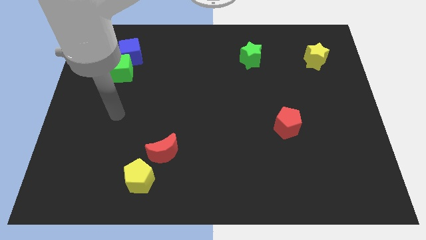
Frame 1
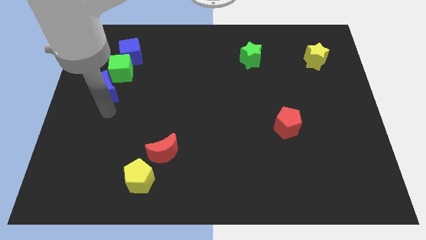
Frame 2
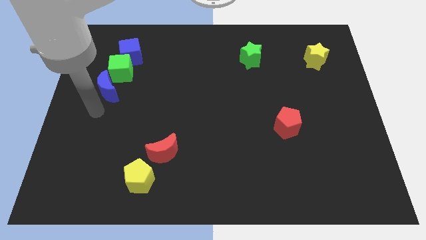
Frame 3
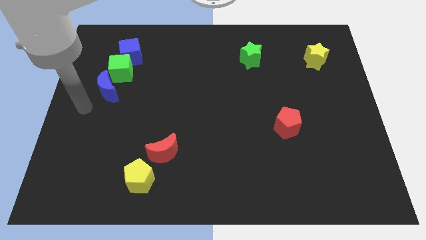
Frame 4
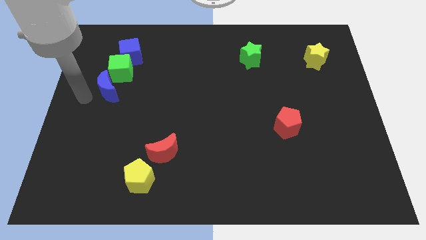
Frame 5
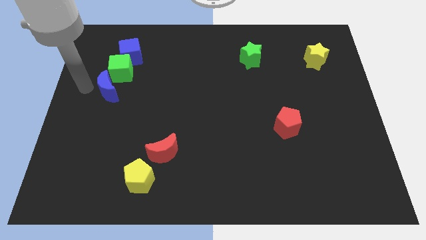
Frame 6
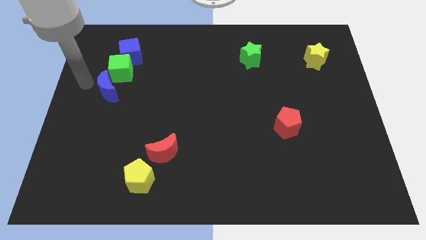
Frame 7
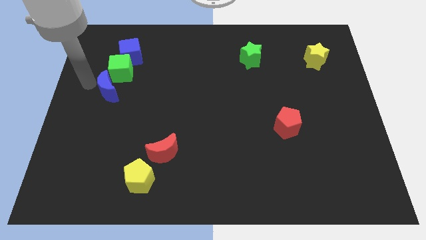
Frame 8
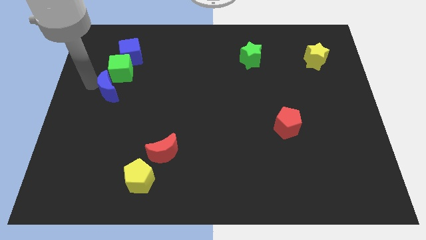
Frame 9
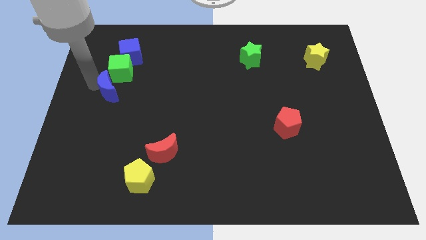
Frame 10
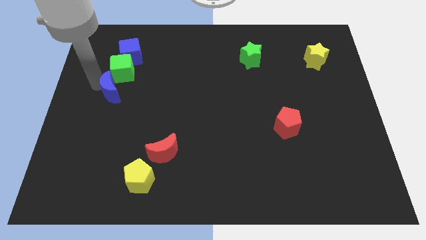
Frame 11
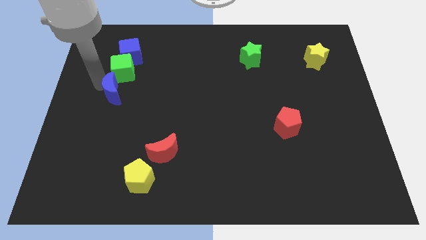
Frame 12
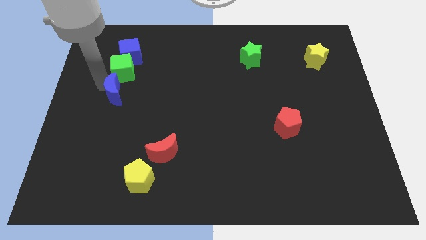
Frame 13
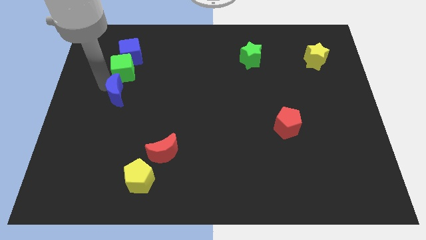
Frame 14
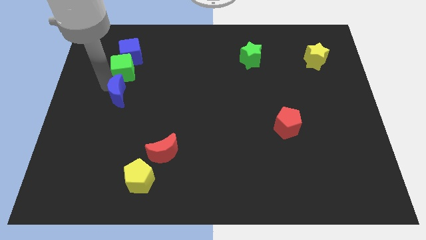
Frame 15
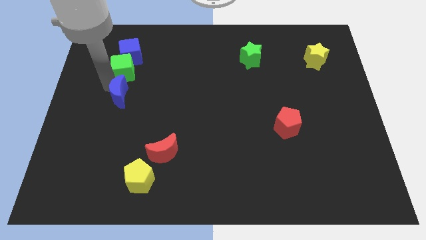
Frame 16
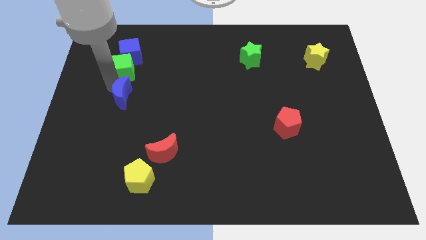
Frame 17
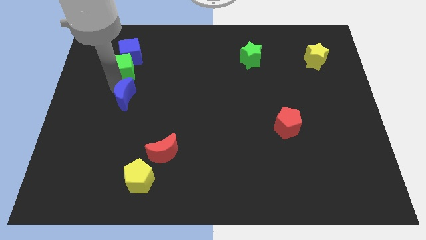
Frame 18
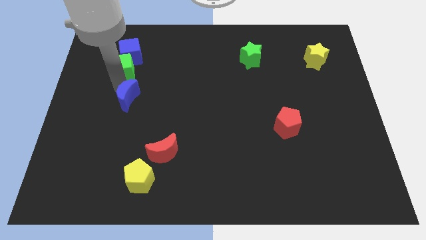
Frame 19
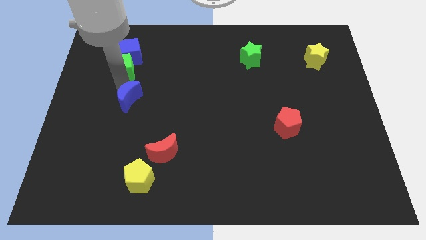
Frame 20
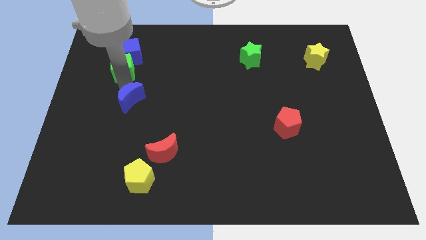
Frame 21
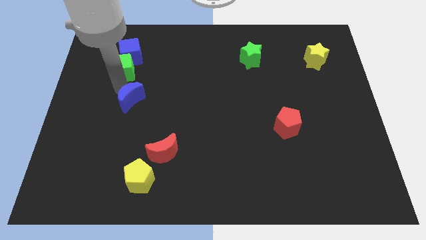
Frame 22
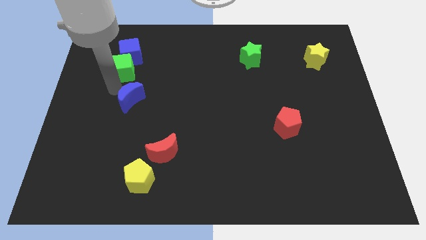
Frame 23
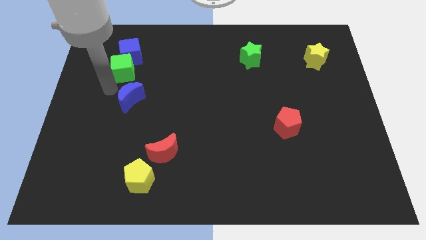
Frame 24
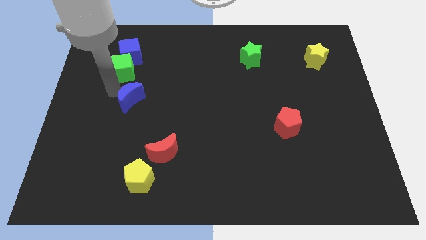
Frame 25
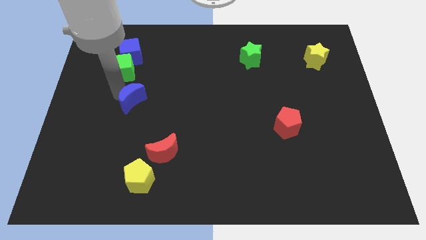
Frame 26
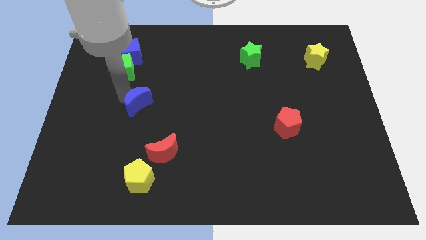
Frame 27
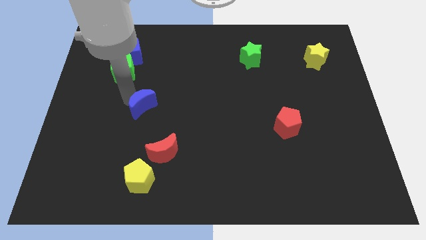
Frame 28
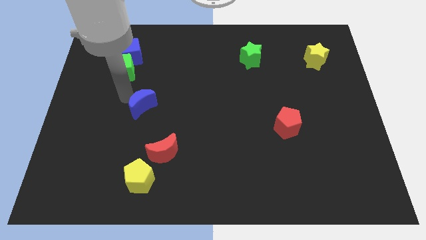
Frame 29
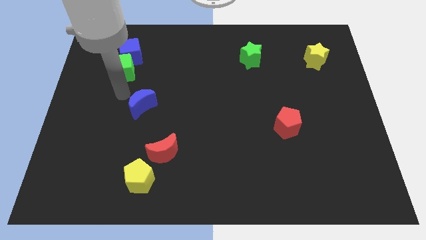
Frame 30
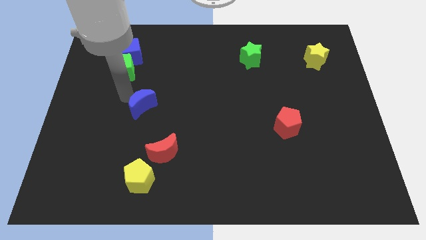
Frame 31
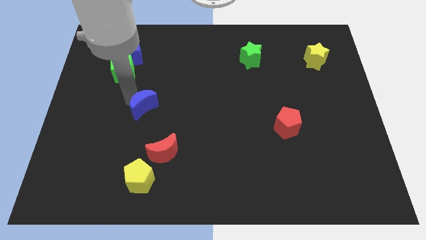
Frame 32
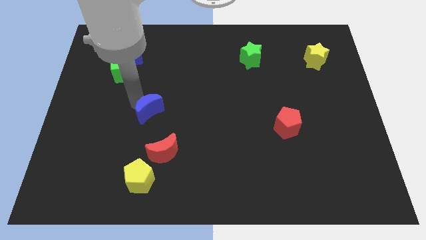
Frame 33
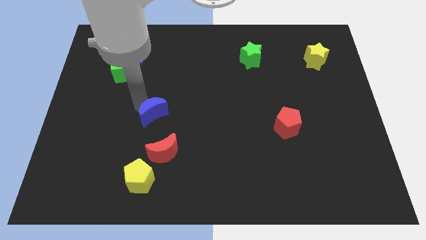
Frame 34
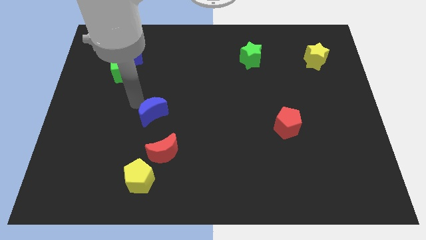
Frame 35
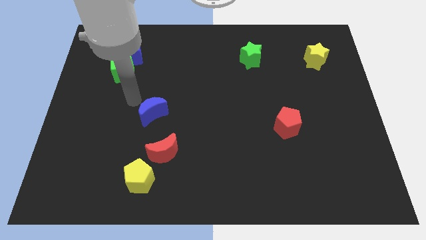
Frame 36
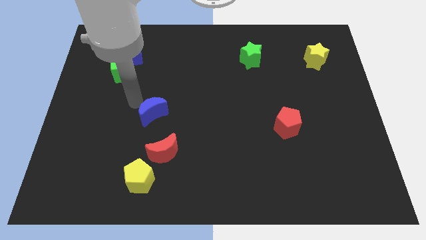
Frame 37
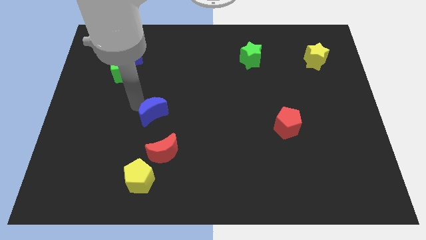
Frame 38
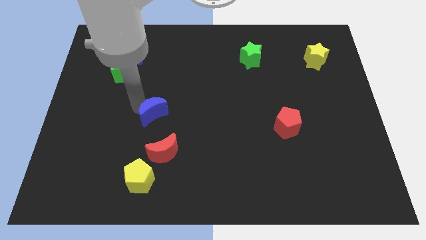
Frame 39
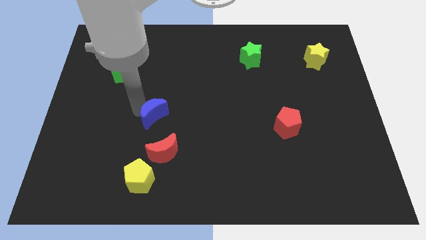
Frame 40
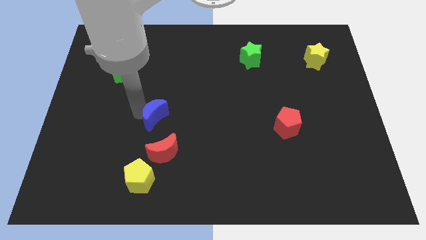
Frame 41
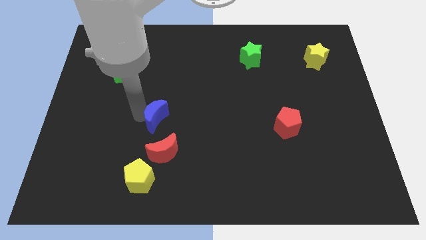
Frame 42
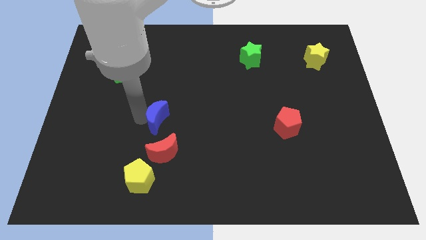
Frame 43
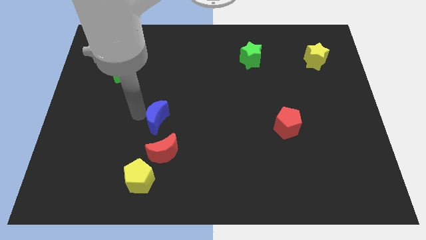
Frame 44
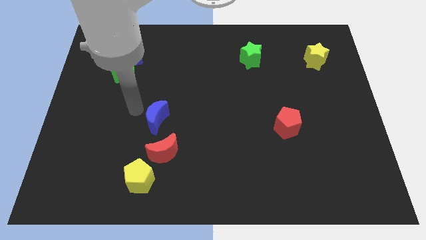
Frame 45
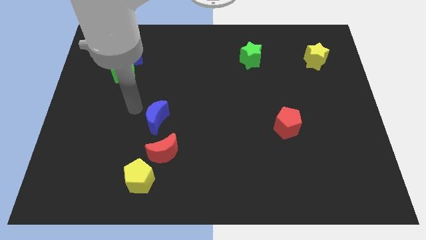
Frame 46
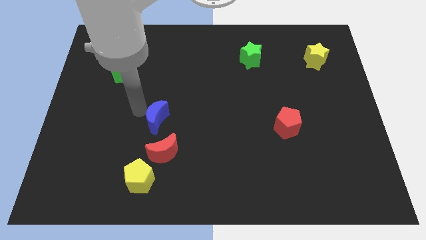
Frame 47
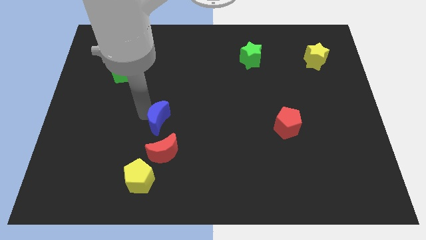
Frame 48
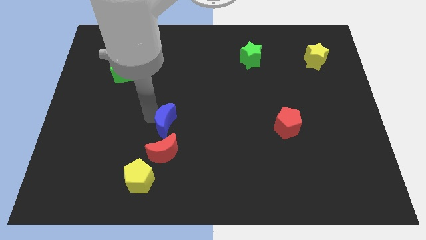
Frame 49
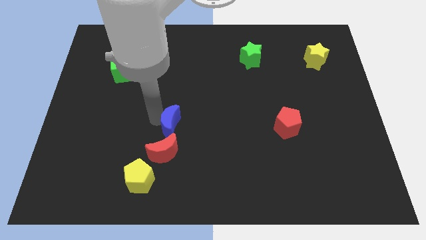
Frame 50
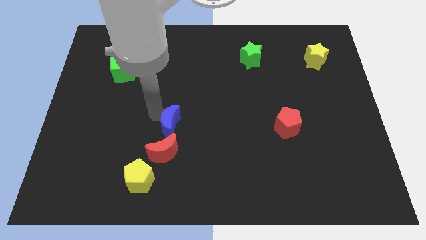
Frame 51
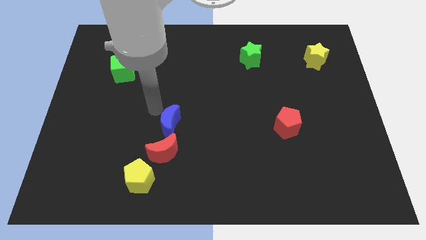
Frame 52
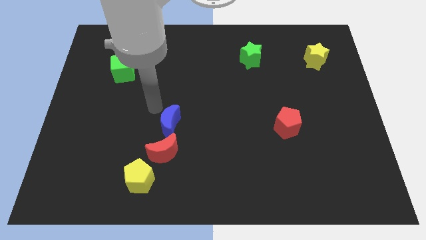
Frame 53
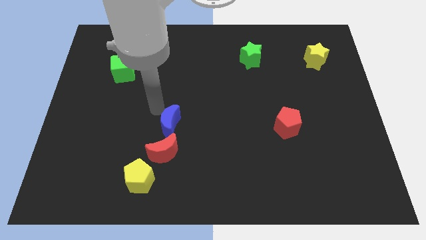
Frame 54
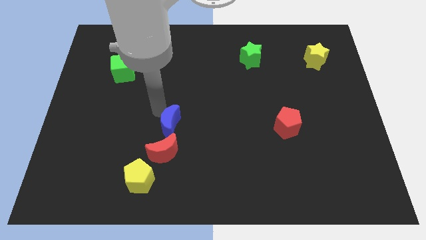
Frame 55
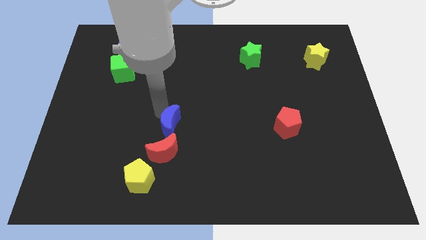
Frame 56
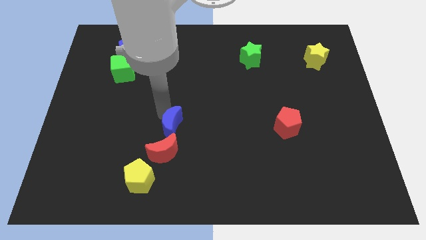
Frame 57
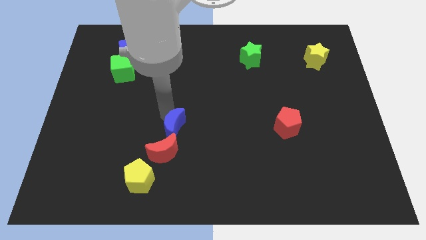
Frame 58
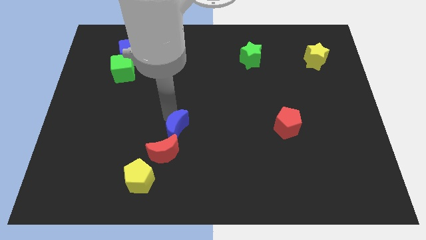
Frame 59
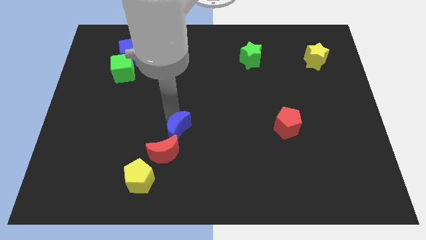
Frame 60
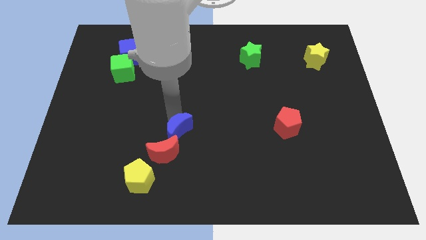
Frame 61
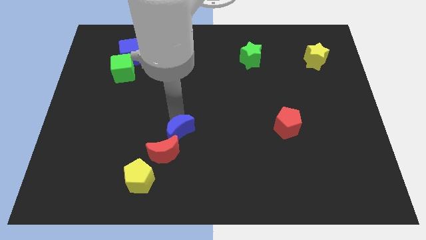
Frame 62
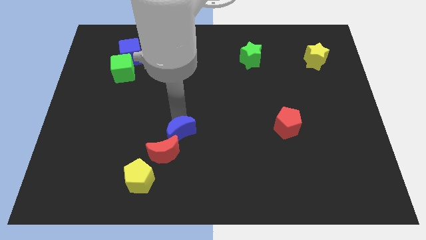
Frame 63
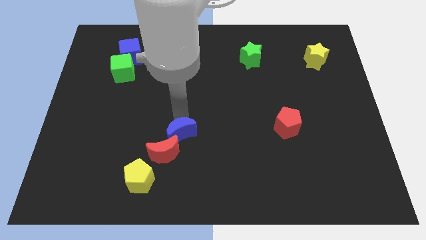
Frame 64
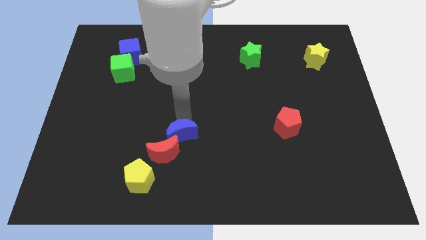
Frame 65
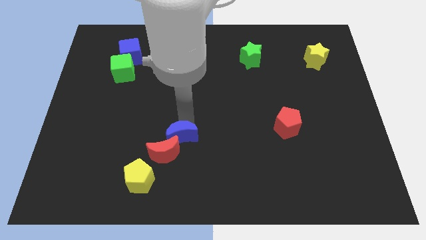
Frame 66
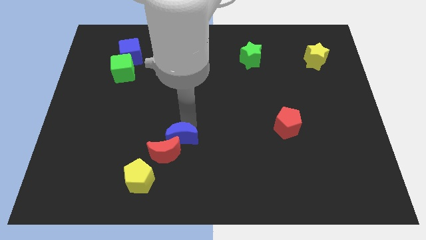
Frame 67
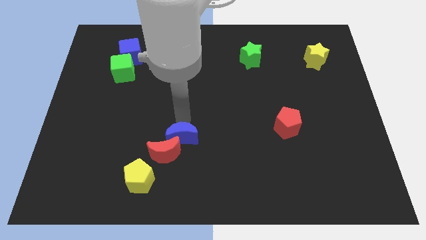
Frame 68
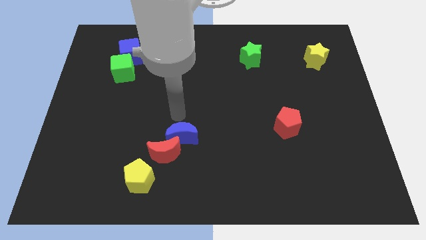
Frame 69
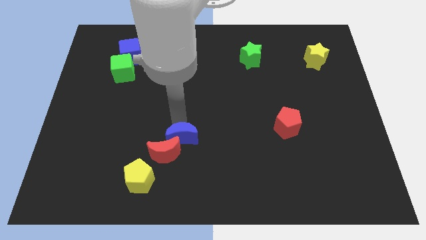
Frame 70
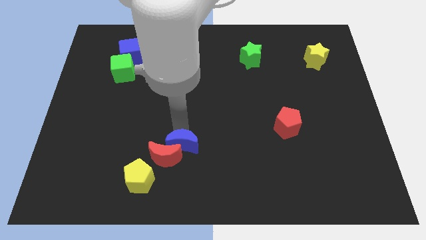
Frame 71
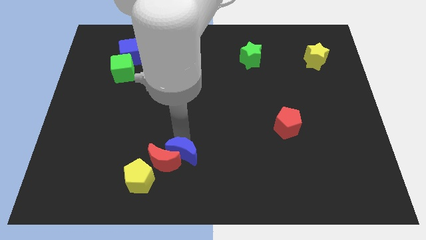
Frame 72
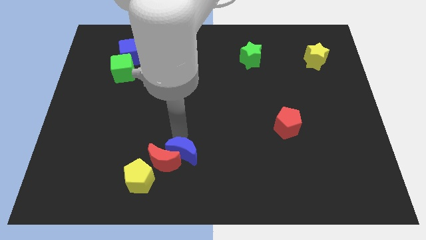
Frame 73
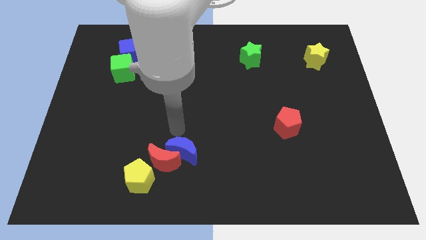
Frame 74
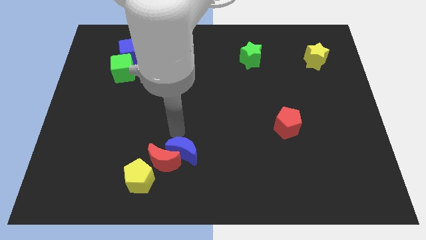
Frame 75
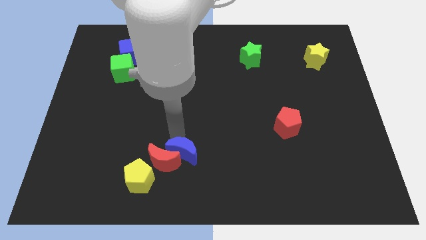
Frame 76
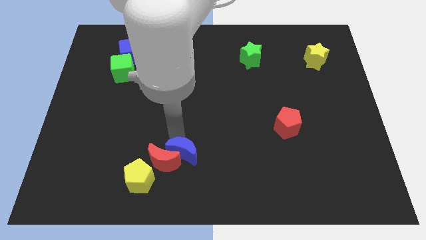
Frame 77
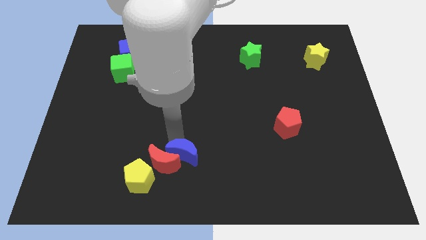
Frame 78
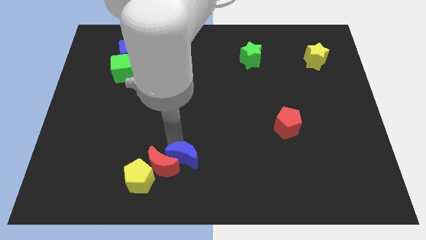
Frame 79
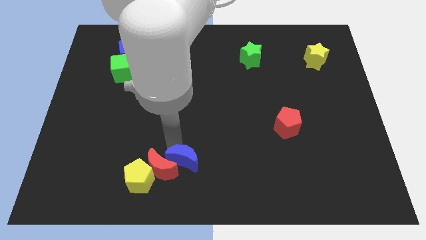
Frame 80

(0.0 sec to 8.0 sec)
move the blue moon just right of the yellow pentagon
